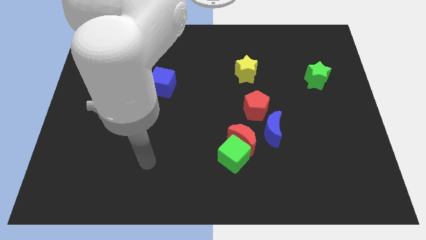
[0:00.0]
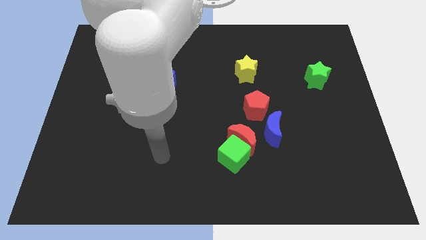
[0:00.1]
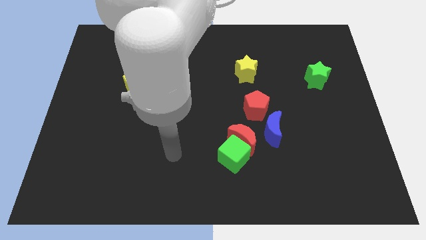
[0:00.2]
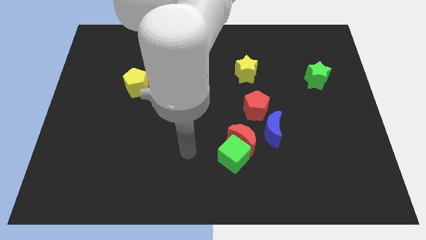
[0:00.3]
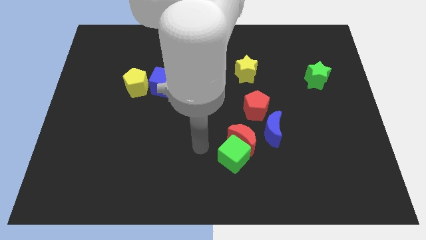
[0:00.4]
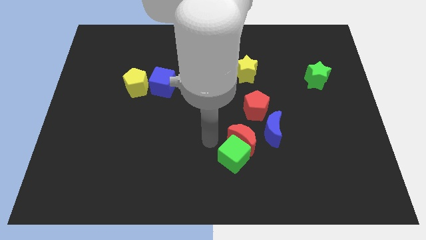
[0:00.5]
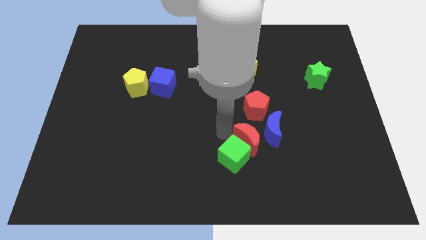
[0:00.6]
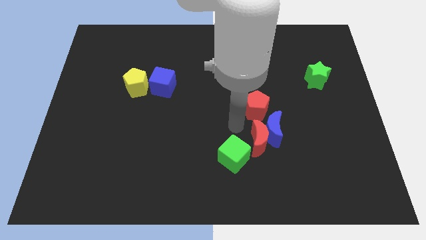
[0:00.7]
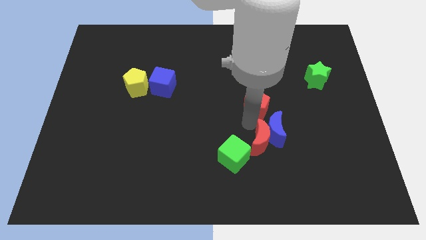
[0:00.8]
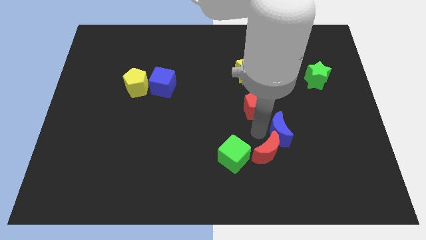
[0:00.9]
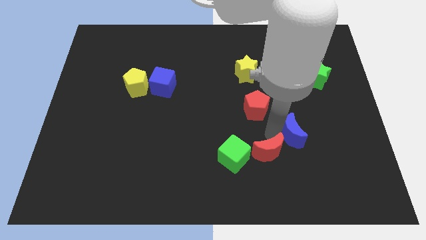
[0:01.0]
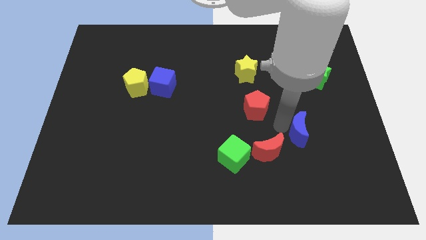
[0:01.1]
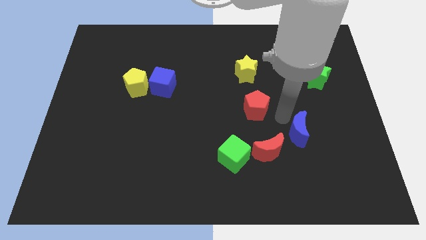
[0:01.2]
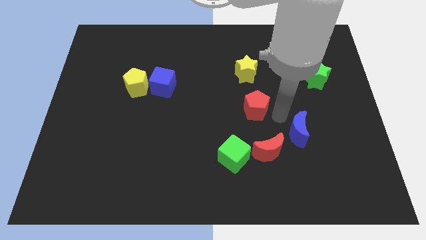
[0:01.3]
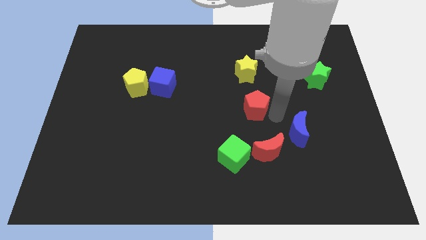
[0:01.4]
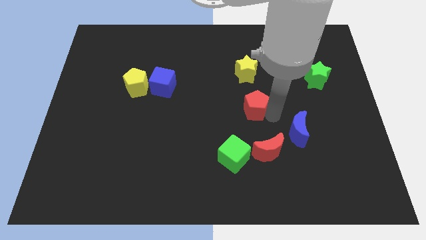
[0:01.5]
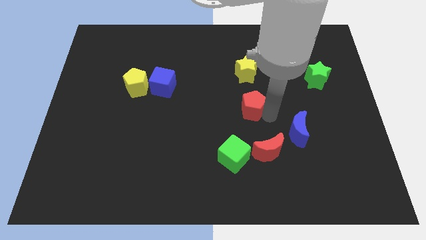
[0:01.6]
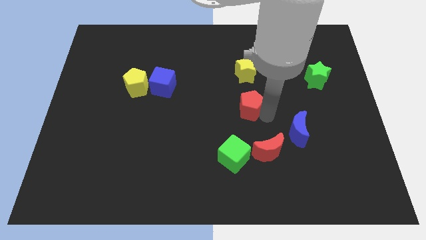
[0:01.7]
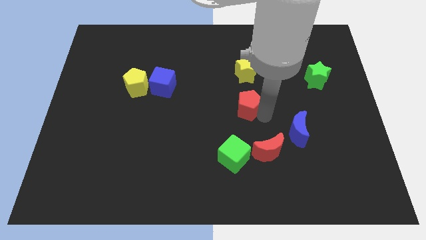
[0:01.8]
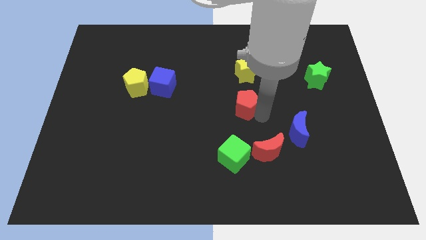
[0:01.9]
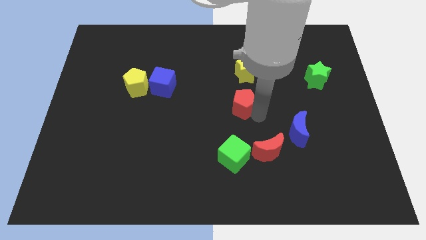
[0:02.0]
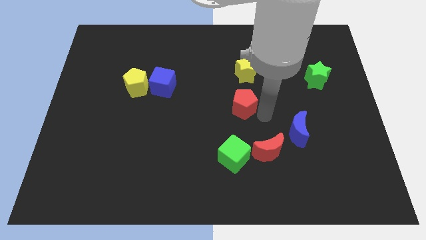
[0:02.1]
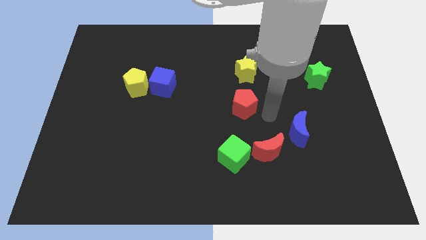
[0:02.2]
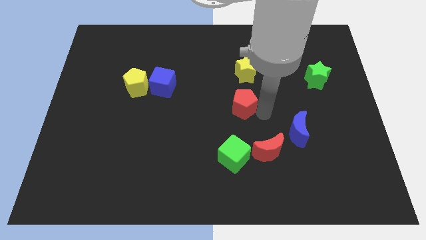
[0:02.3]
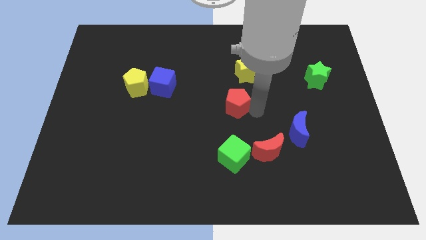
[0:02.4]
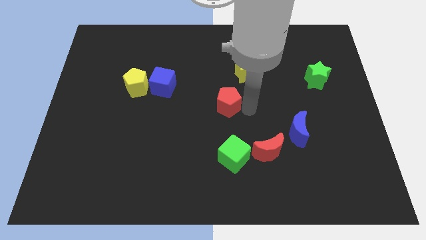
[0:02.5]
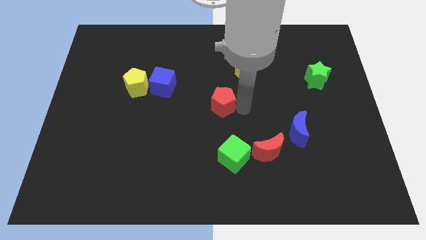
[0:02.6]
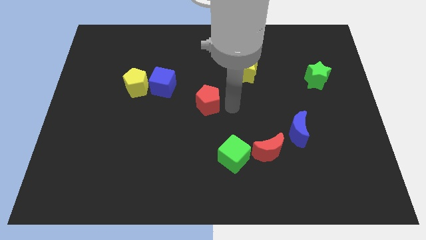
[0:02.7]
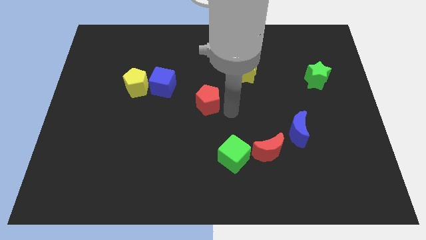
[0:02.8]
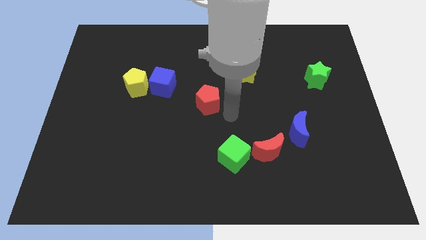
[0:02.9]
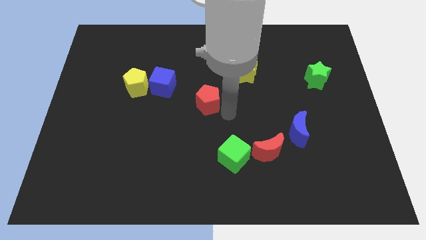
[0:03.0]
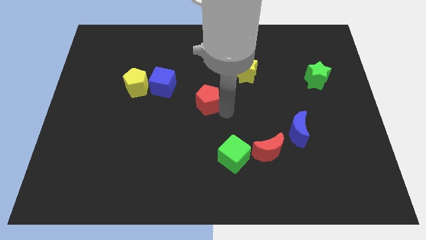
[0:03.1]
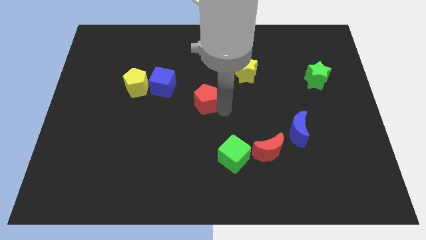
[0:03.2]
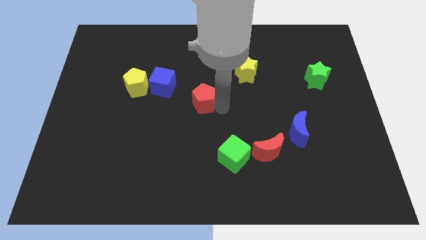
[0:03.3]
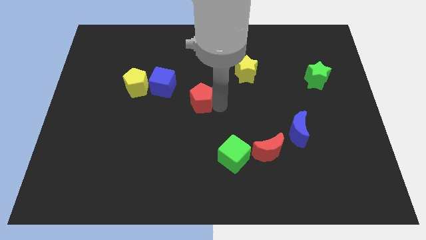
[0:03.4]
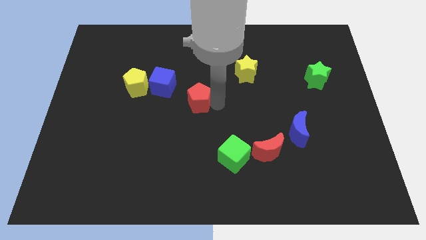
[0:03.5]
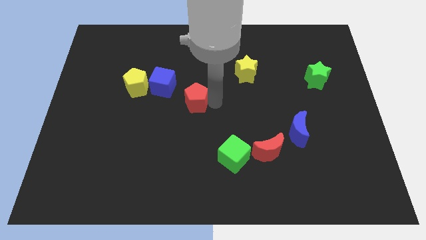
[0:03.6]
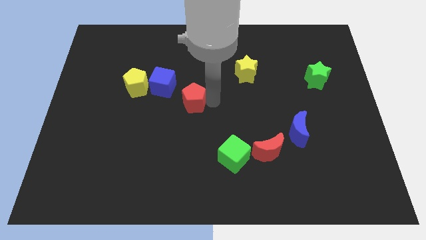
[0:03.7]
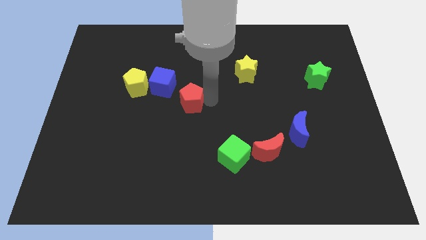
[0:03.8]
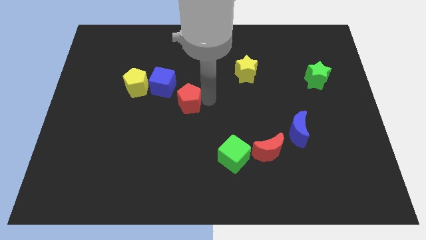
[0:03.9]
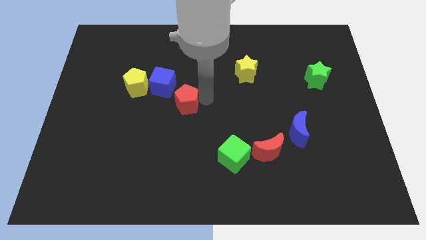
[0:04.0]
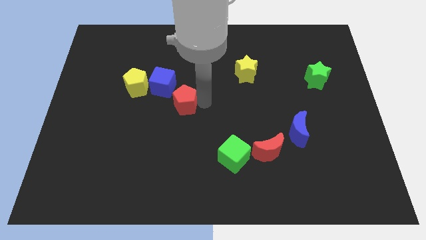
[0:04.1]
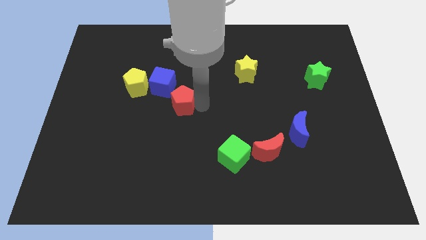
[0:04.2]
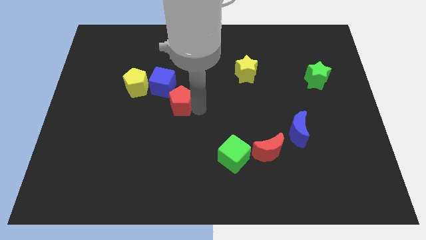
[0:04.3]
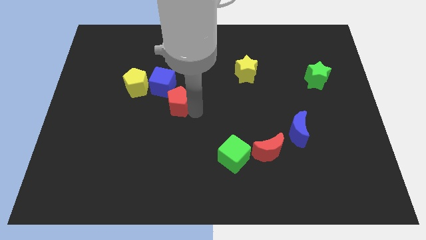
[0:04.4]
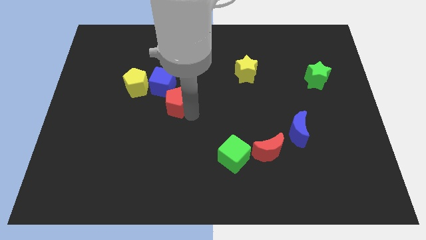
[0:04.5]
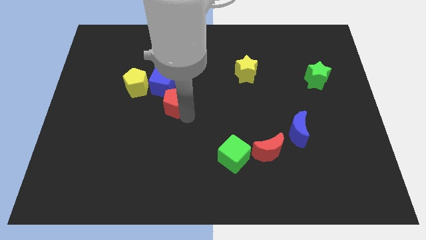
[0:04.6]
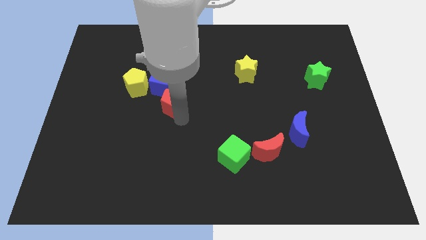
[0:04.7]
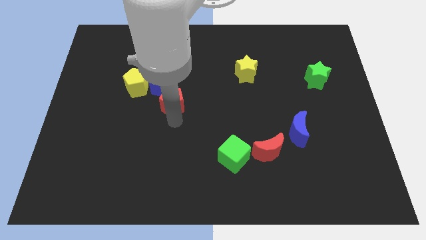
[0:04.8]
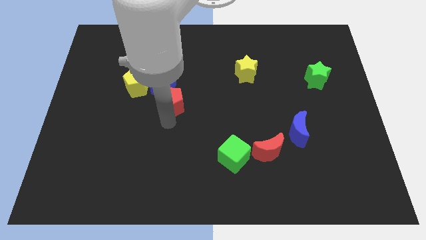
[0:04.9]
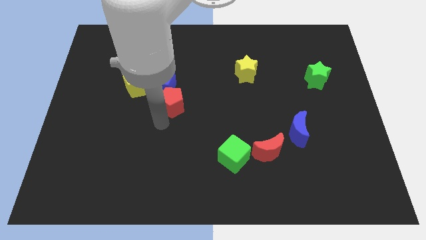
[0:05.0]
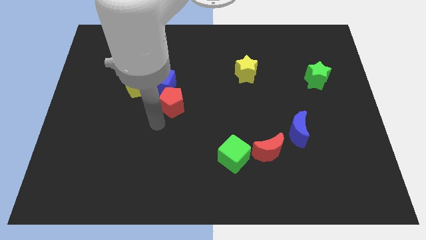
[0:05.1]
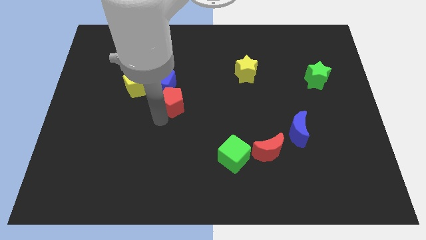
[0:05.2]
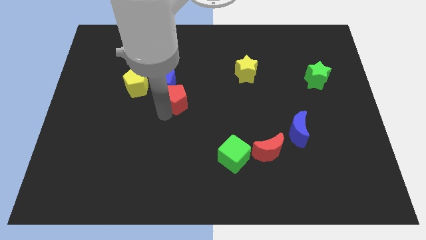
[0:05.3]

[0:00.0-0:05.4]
push the red pentagon towards the blue cube

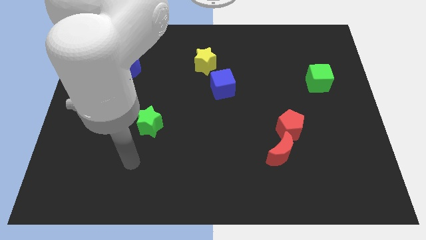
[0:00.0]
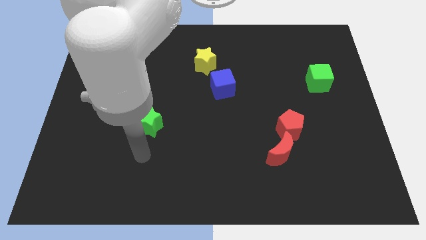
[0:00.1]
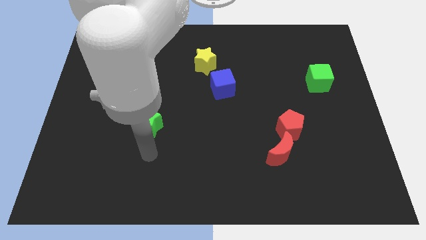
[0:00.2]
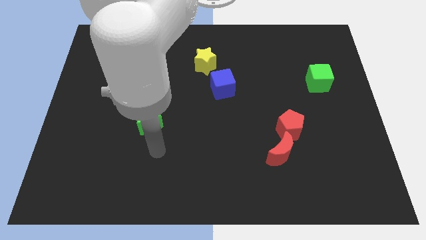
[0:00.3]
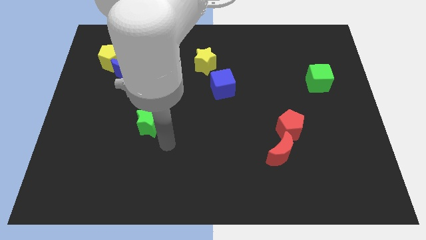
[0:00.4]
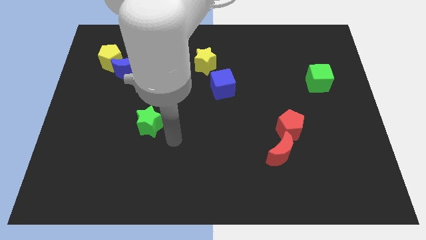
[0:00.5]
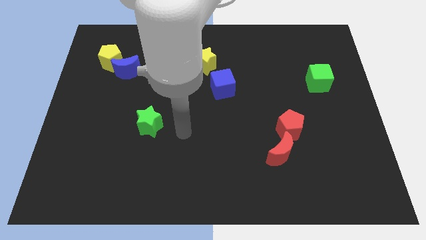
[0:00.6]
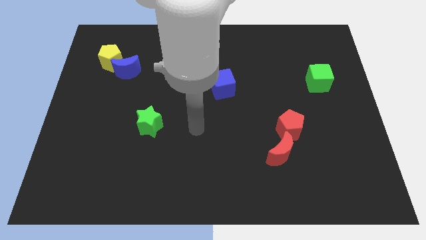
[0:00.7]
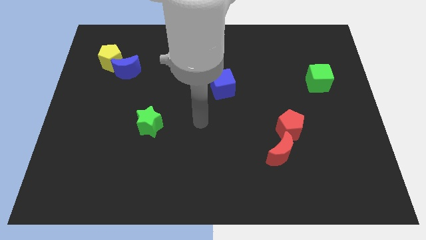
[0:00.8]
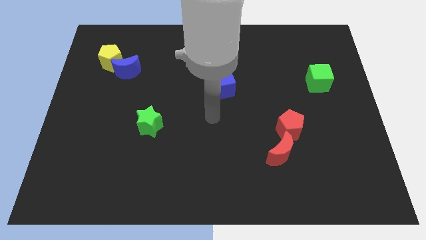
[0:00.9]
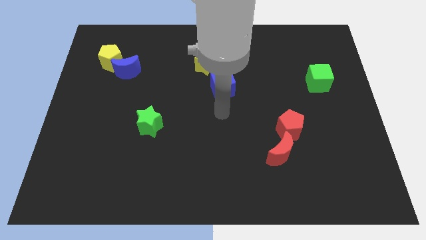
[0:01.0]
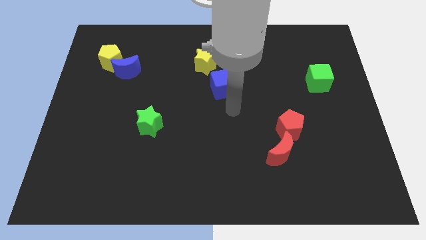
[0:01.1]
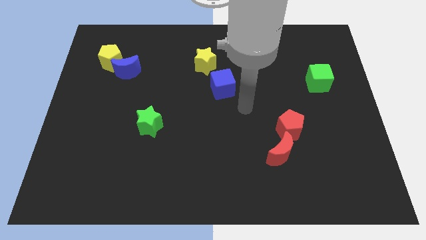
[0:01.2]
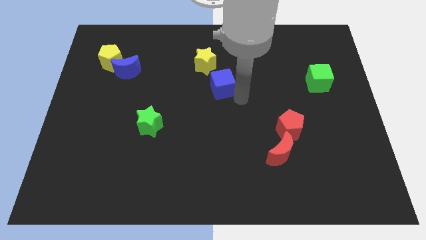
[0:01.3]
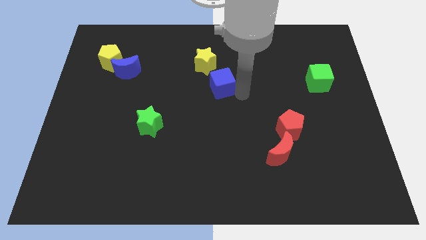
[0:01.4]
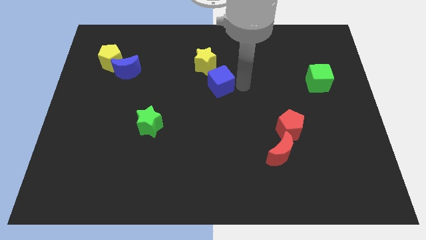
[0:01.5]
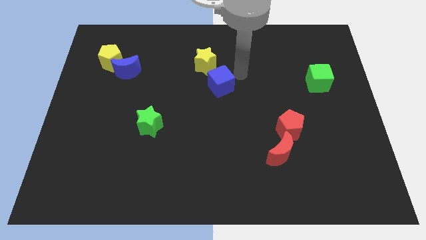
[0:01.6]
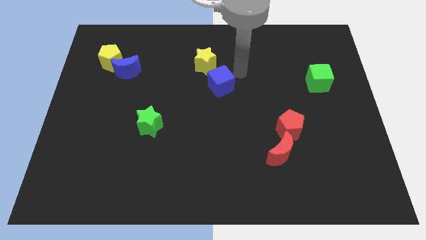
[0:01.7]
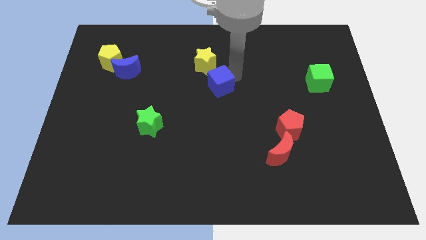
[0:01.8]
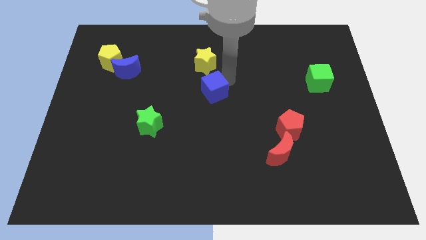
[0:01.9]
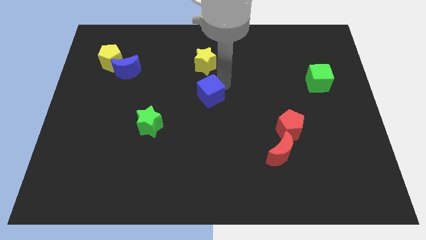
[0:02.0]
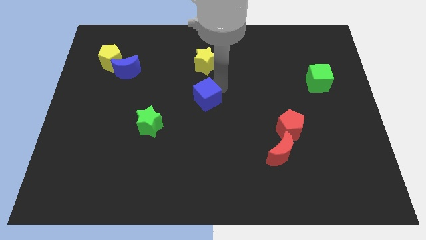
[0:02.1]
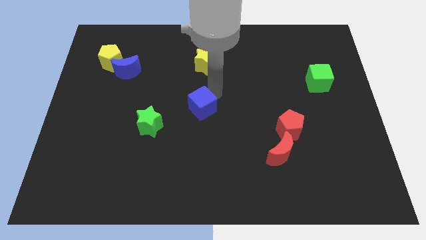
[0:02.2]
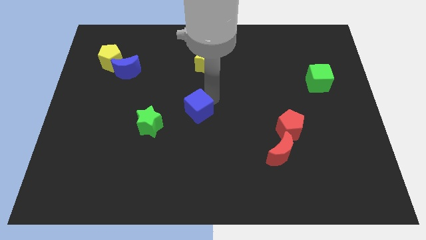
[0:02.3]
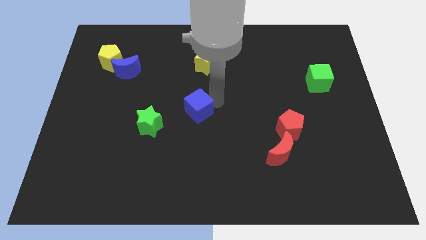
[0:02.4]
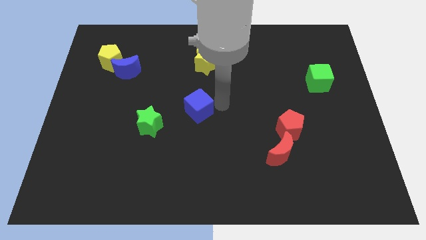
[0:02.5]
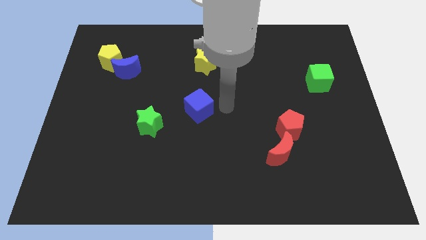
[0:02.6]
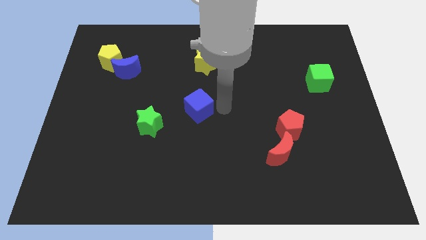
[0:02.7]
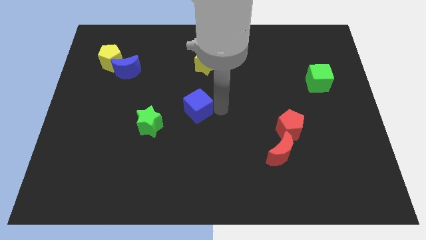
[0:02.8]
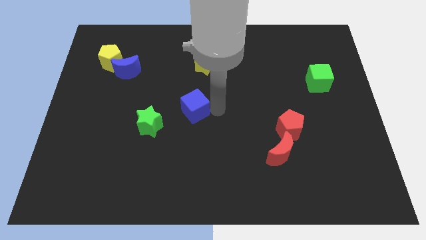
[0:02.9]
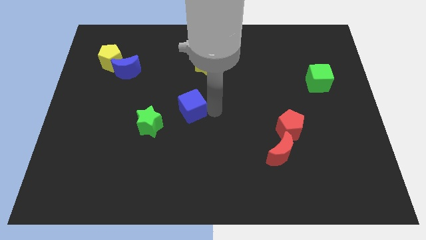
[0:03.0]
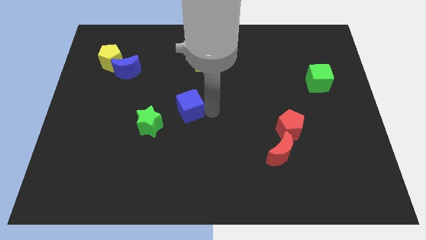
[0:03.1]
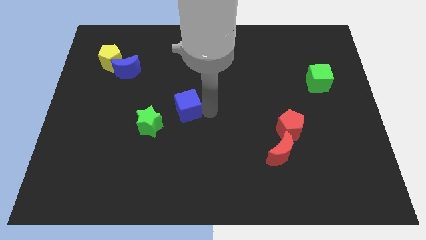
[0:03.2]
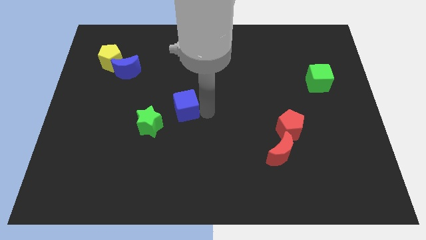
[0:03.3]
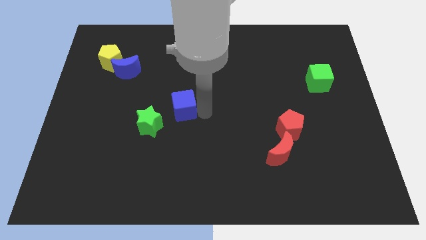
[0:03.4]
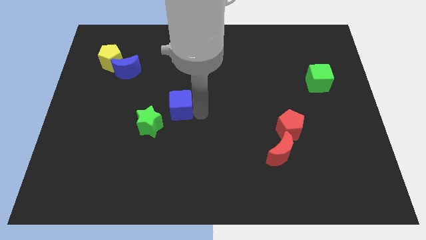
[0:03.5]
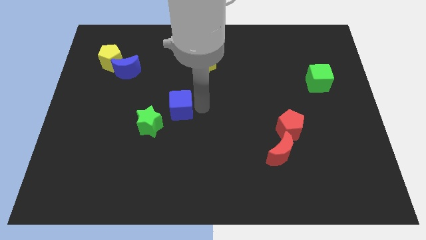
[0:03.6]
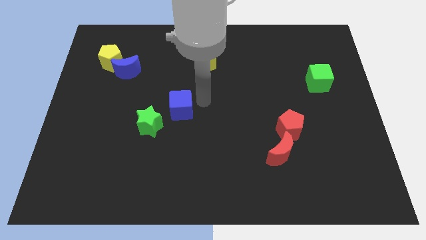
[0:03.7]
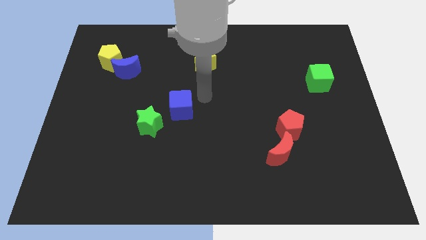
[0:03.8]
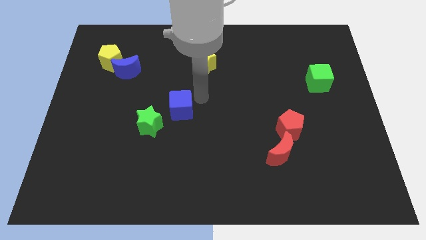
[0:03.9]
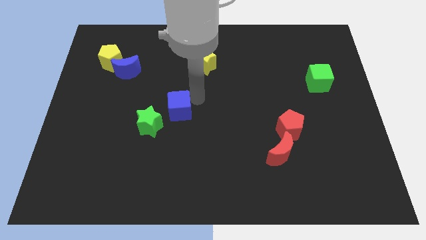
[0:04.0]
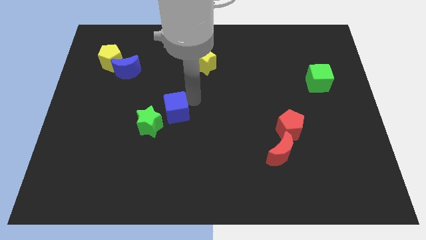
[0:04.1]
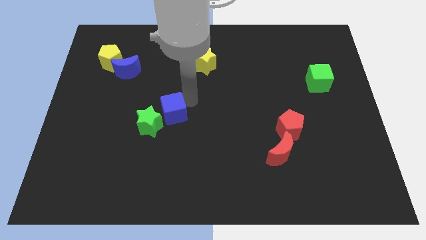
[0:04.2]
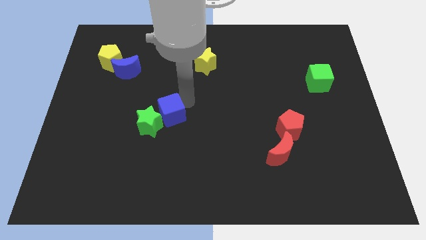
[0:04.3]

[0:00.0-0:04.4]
push the blue cube towards the green star
